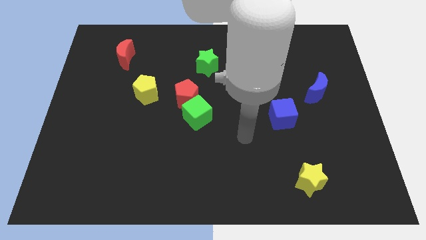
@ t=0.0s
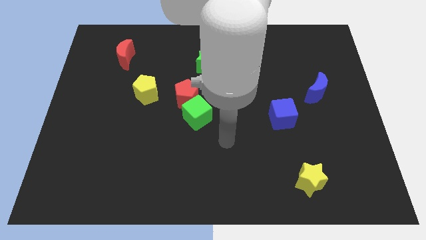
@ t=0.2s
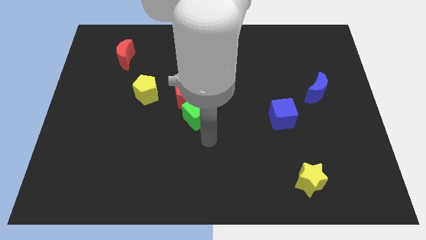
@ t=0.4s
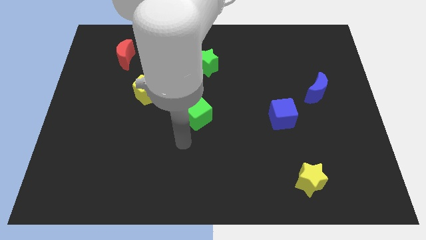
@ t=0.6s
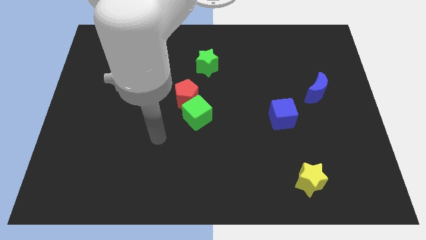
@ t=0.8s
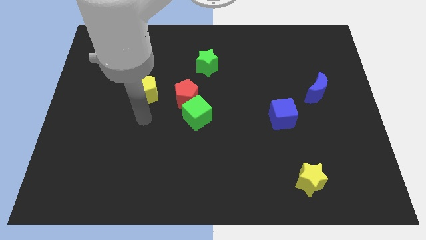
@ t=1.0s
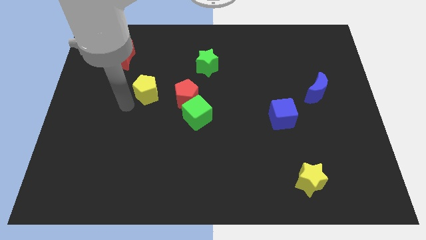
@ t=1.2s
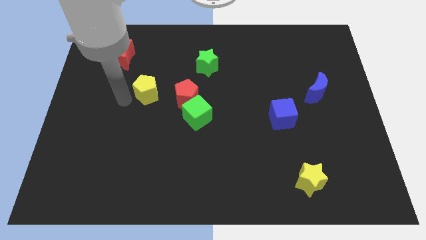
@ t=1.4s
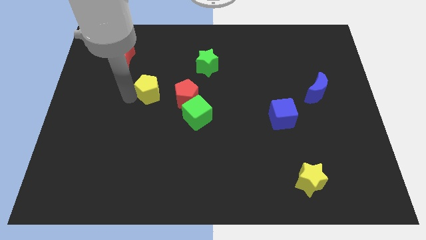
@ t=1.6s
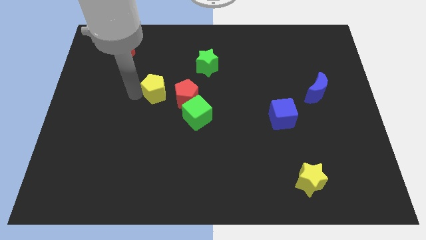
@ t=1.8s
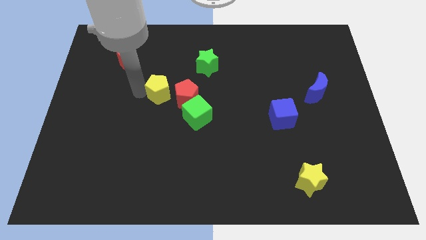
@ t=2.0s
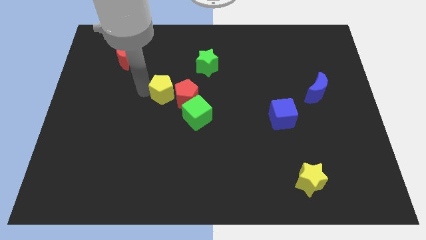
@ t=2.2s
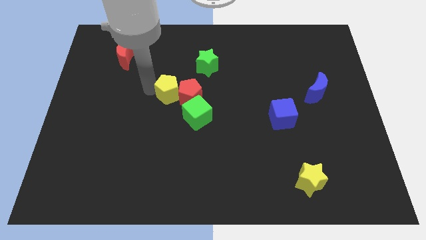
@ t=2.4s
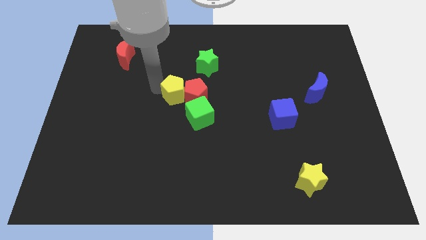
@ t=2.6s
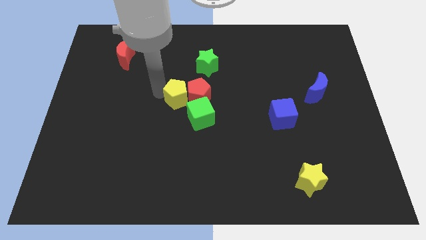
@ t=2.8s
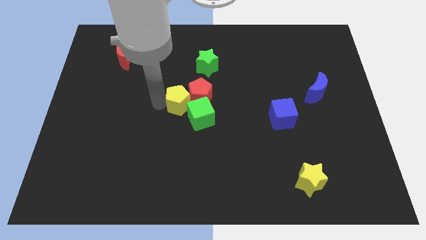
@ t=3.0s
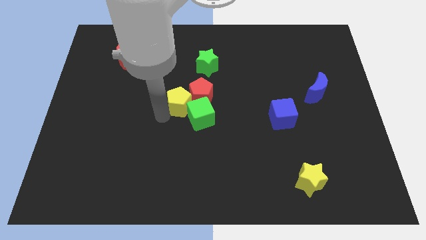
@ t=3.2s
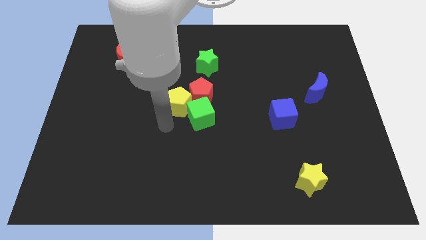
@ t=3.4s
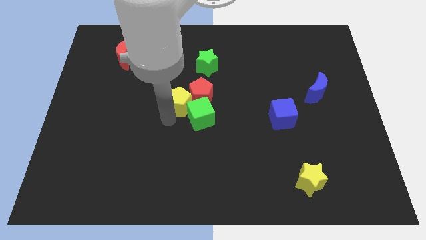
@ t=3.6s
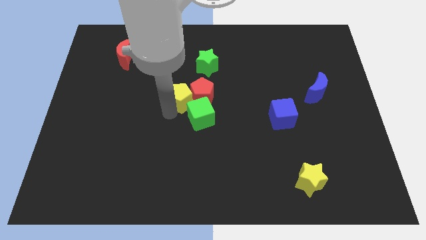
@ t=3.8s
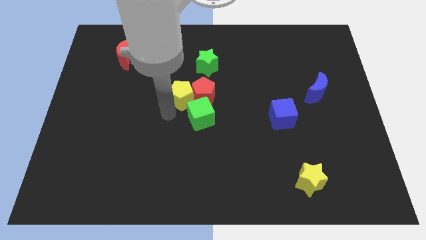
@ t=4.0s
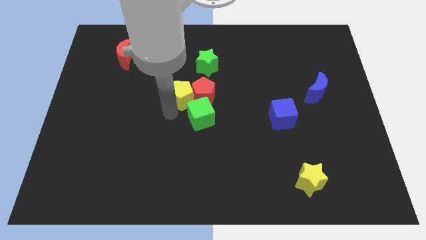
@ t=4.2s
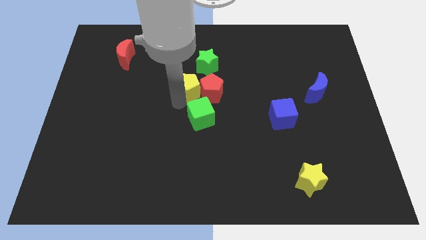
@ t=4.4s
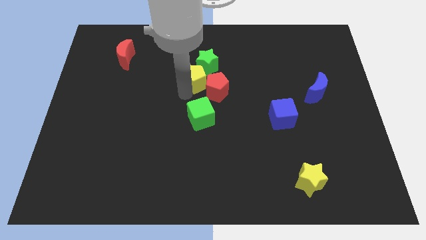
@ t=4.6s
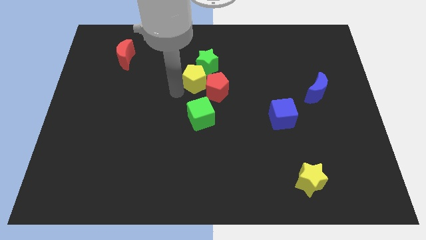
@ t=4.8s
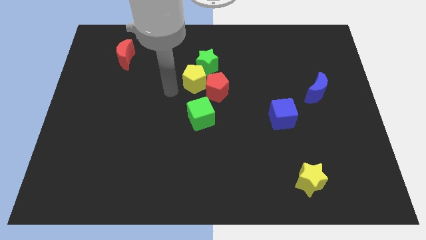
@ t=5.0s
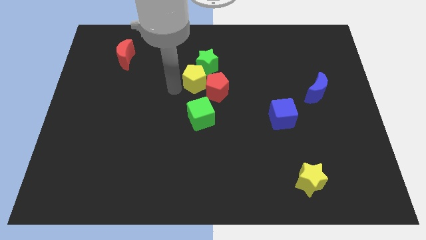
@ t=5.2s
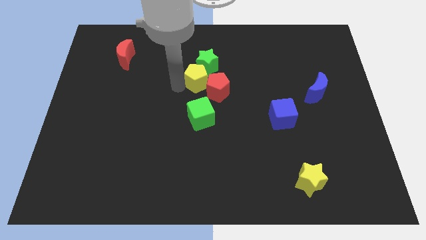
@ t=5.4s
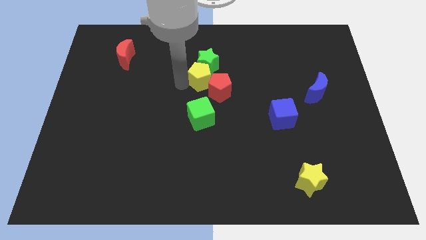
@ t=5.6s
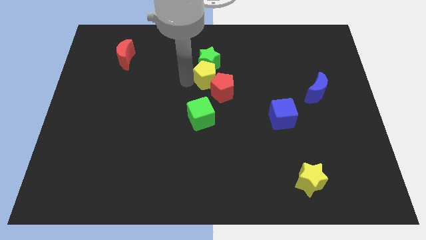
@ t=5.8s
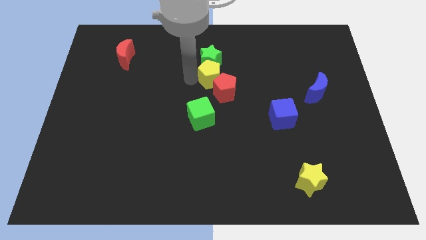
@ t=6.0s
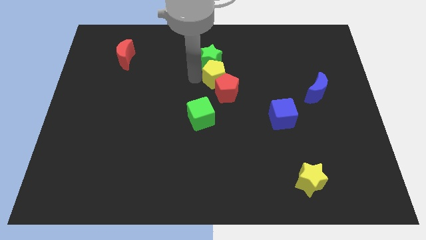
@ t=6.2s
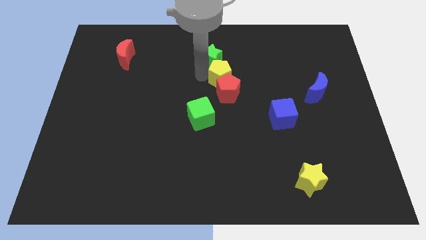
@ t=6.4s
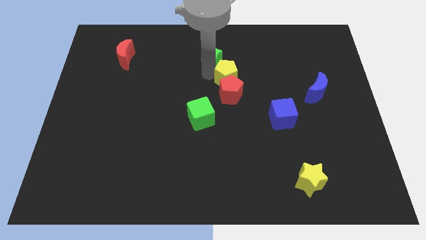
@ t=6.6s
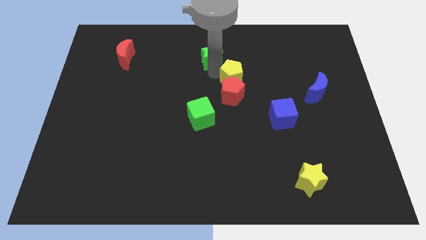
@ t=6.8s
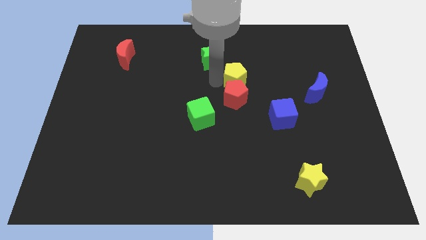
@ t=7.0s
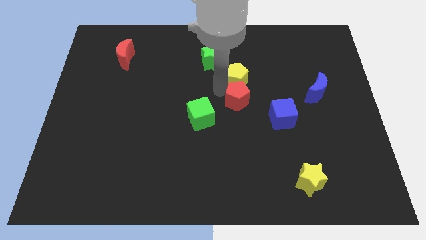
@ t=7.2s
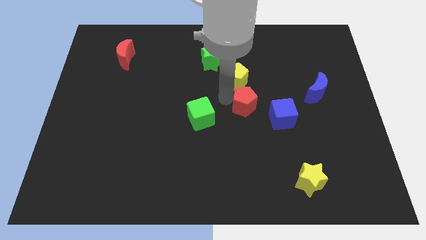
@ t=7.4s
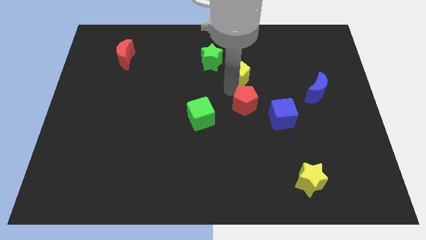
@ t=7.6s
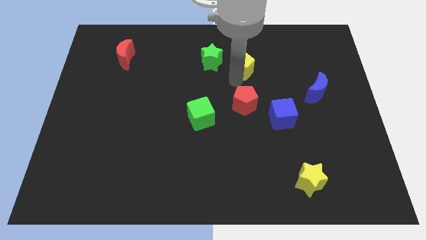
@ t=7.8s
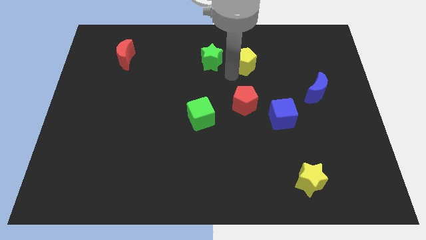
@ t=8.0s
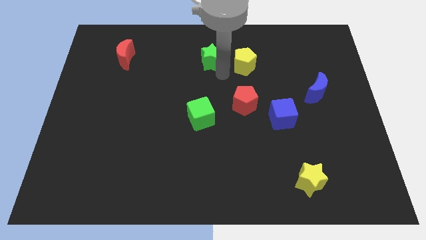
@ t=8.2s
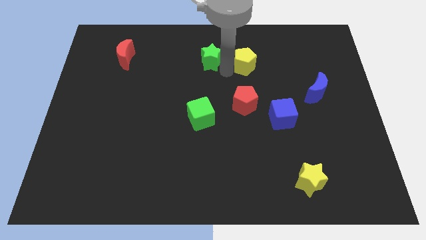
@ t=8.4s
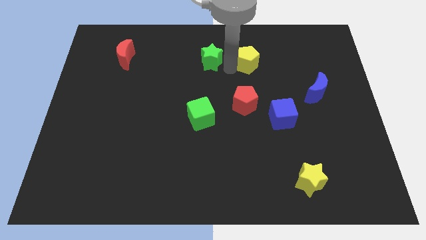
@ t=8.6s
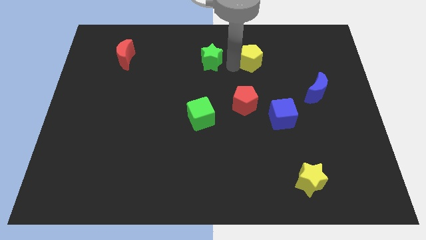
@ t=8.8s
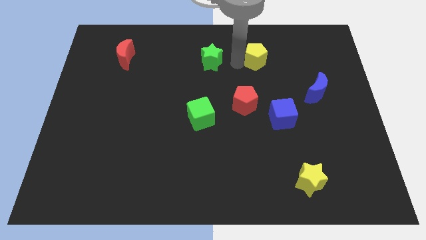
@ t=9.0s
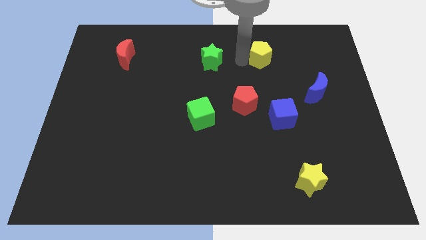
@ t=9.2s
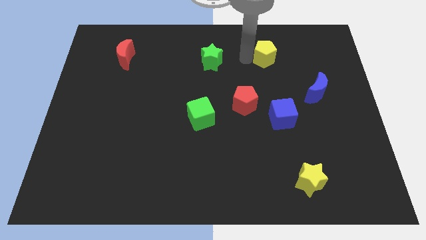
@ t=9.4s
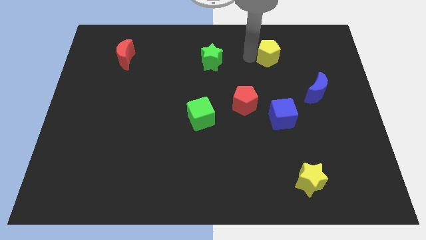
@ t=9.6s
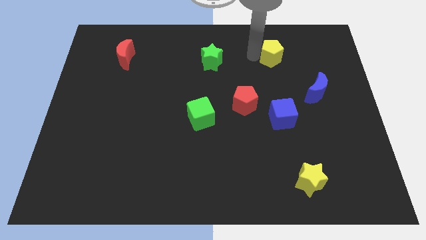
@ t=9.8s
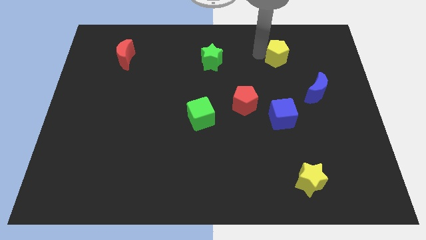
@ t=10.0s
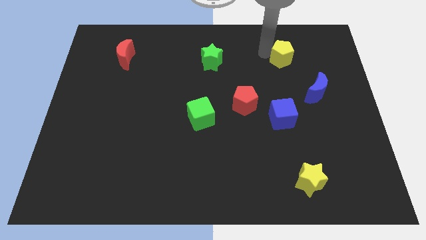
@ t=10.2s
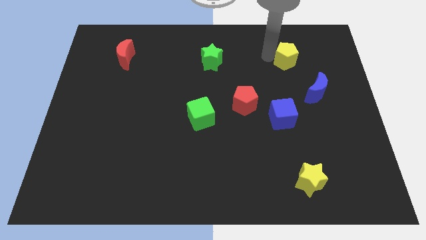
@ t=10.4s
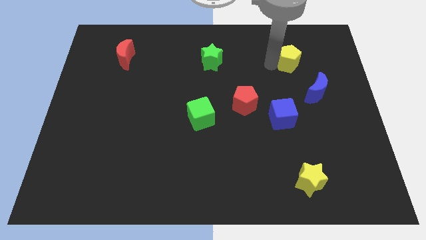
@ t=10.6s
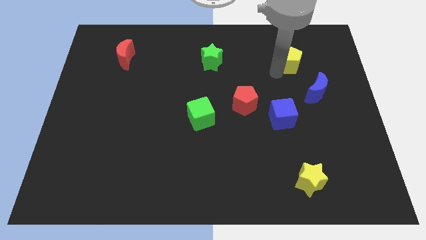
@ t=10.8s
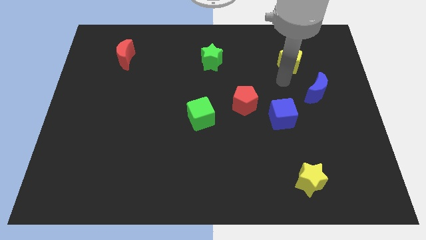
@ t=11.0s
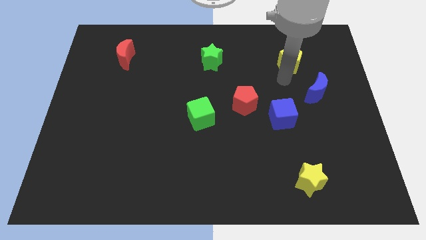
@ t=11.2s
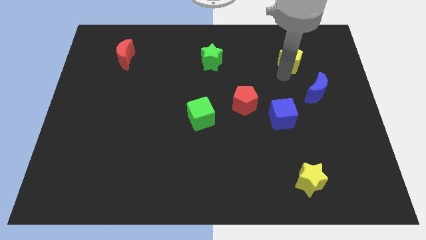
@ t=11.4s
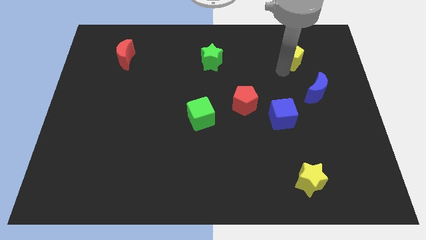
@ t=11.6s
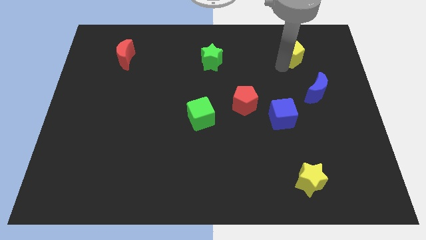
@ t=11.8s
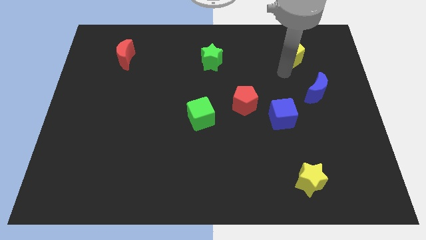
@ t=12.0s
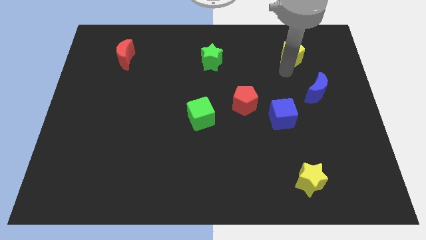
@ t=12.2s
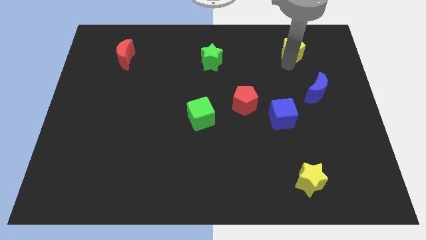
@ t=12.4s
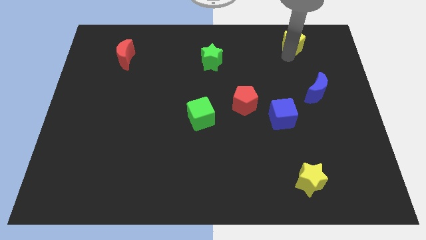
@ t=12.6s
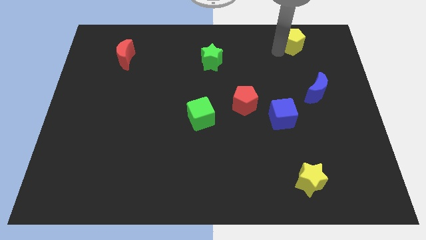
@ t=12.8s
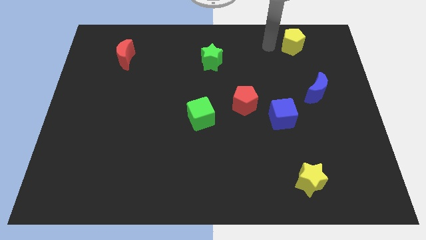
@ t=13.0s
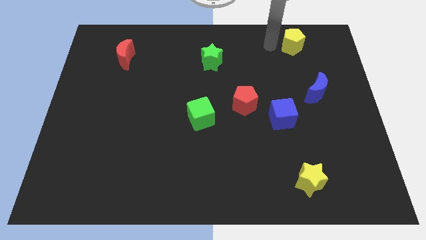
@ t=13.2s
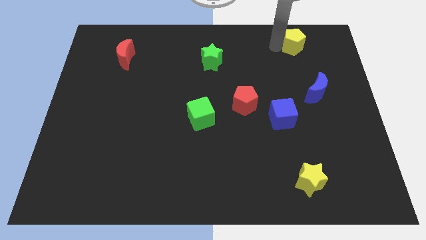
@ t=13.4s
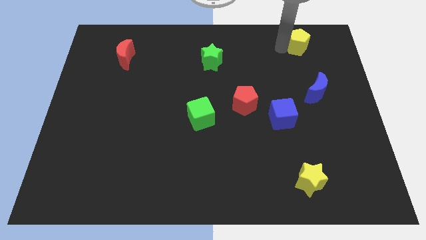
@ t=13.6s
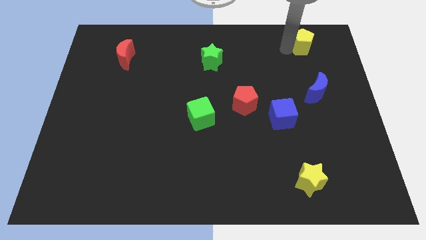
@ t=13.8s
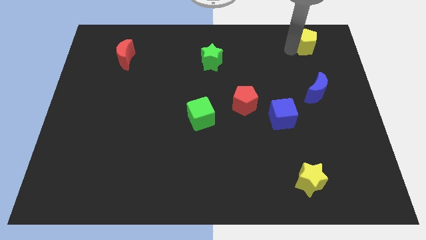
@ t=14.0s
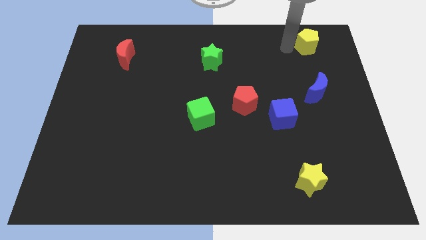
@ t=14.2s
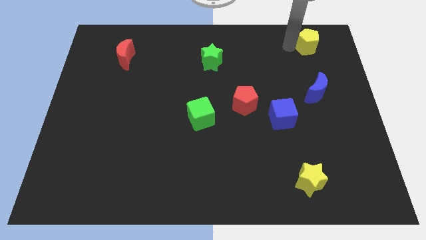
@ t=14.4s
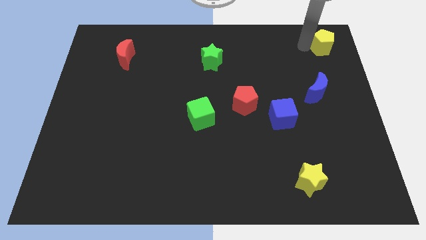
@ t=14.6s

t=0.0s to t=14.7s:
push the yellow pentagon to the top right of the board
